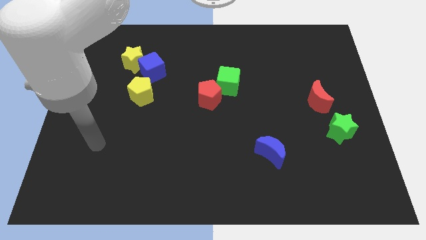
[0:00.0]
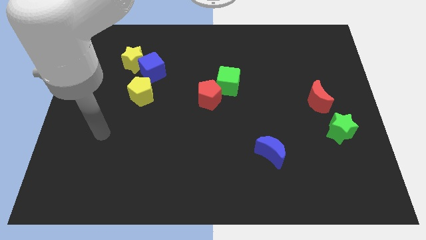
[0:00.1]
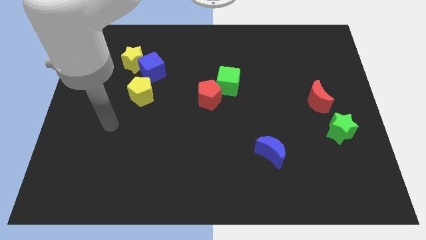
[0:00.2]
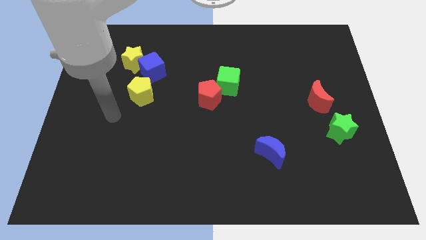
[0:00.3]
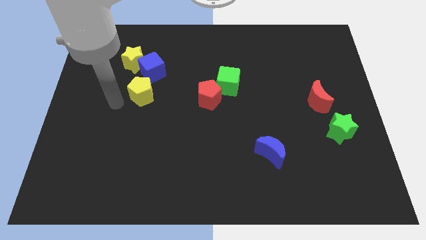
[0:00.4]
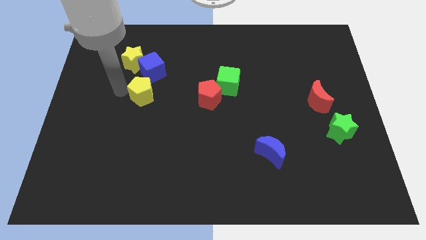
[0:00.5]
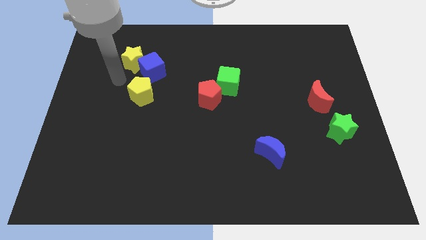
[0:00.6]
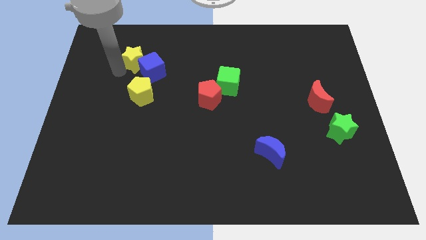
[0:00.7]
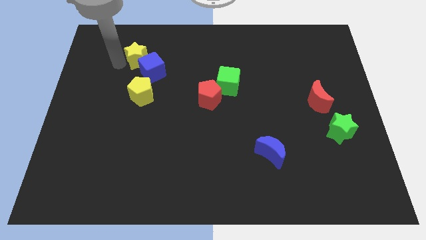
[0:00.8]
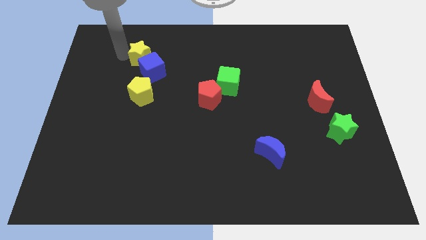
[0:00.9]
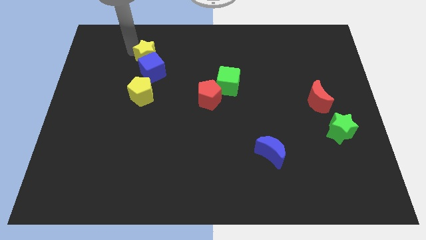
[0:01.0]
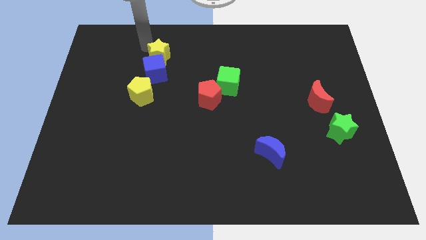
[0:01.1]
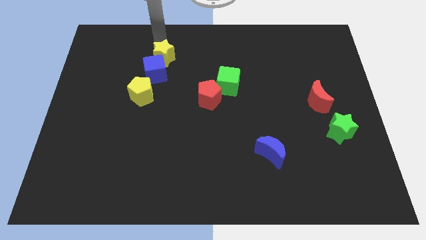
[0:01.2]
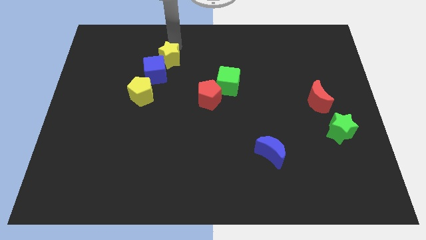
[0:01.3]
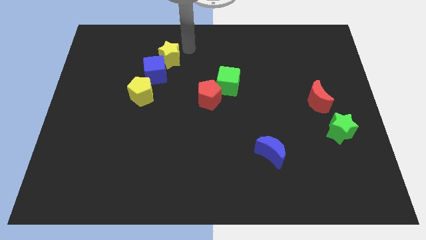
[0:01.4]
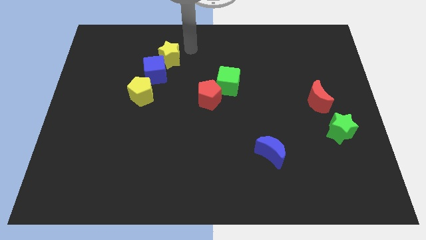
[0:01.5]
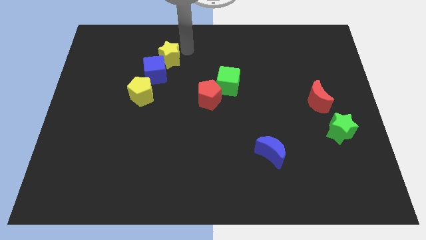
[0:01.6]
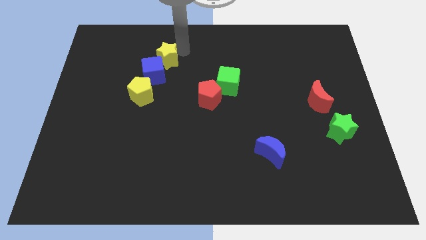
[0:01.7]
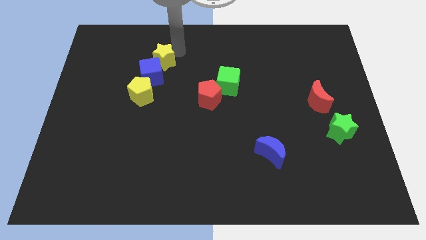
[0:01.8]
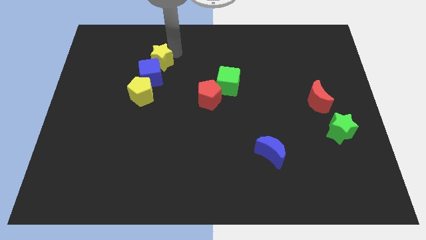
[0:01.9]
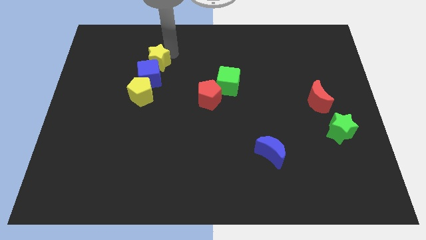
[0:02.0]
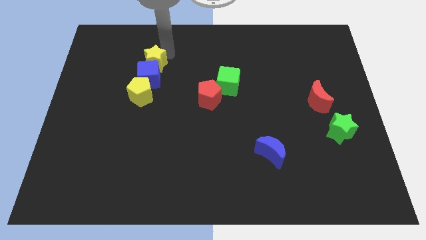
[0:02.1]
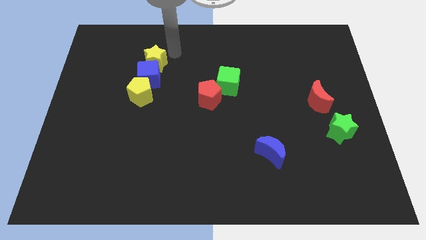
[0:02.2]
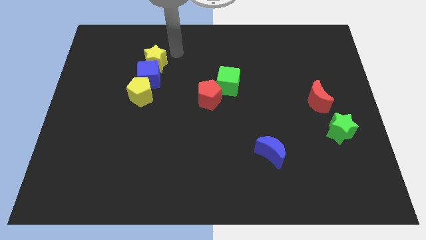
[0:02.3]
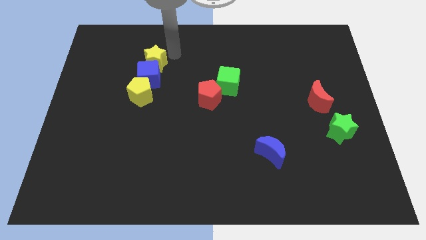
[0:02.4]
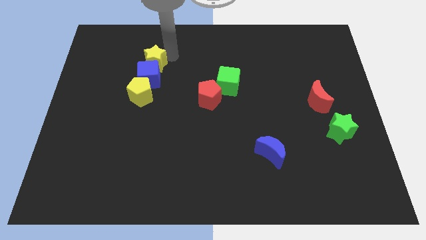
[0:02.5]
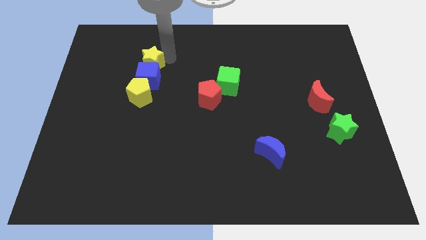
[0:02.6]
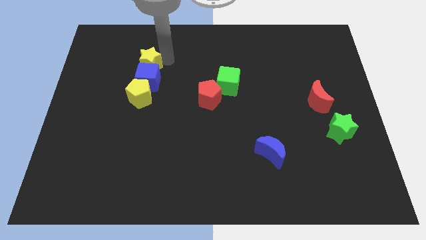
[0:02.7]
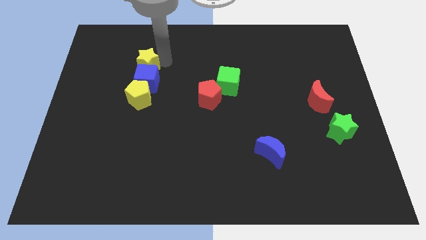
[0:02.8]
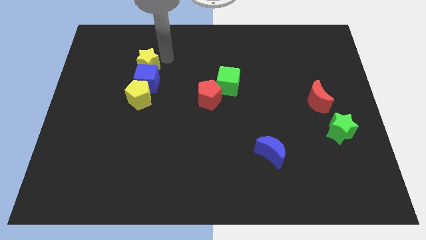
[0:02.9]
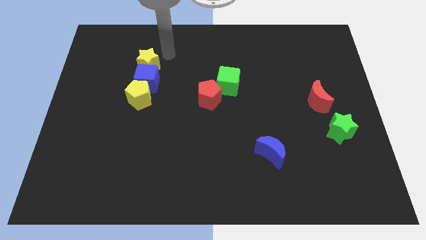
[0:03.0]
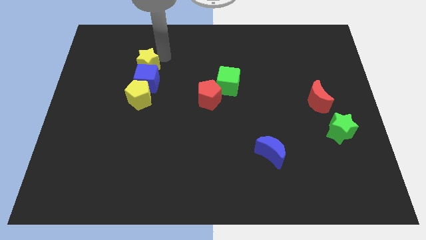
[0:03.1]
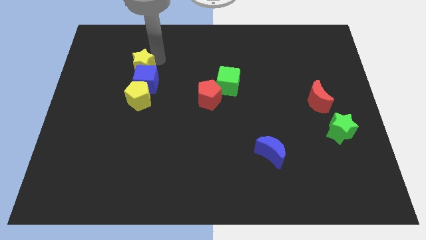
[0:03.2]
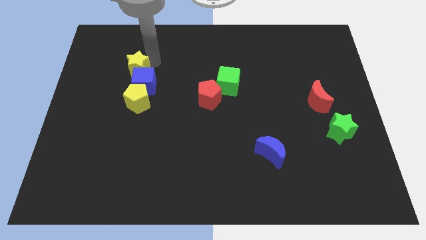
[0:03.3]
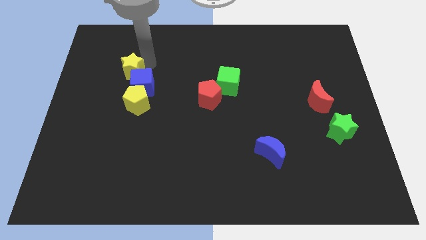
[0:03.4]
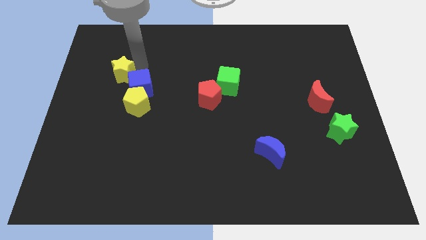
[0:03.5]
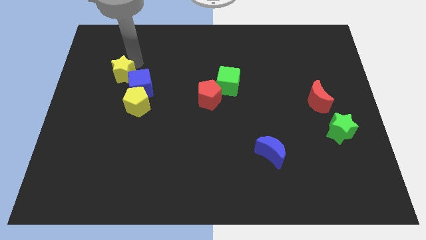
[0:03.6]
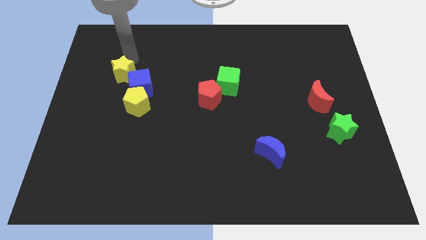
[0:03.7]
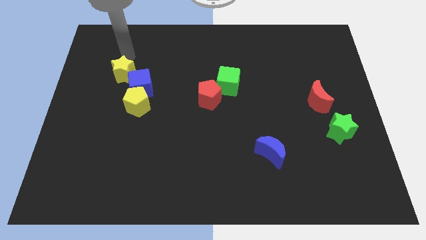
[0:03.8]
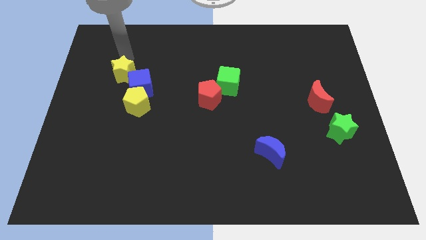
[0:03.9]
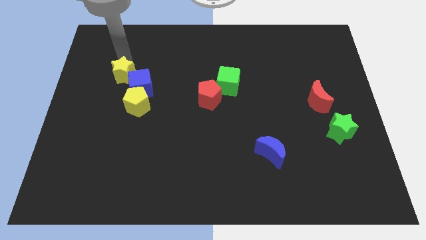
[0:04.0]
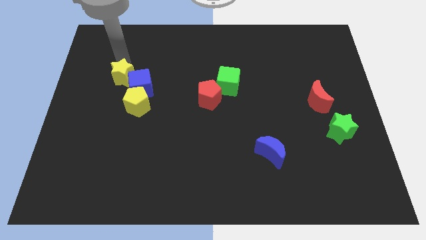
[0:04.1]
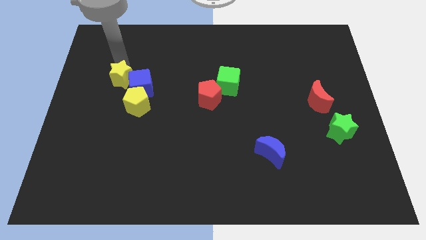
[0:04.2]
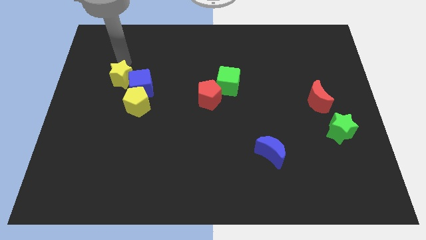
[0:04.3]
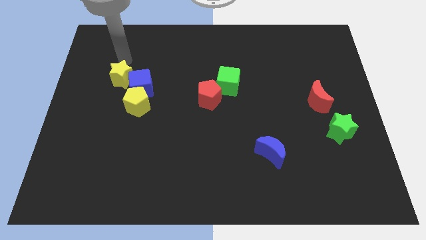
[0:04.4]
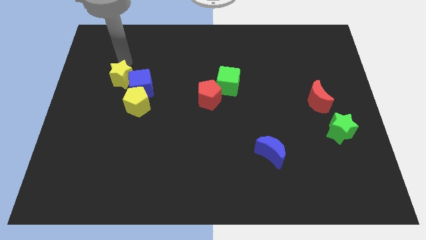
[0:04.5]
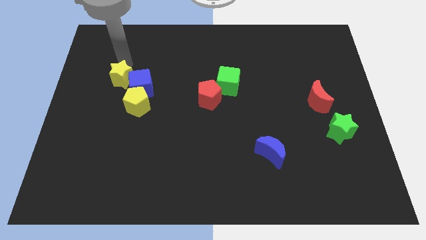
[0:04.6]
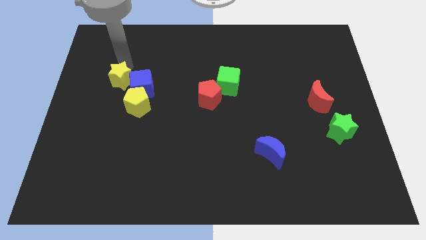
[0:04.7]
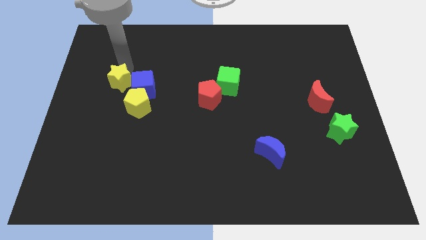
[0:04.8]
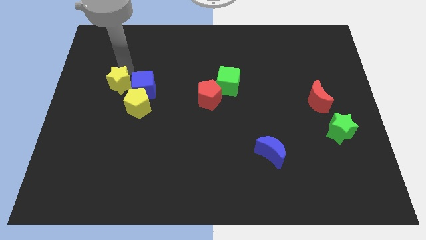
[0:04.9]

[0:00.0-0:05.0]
move the yellow star somewhat down

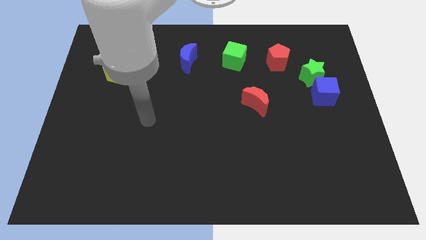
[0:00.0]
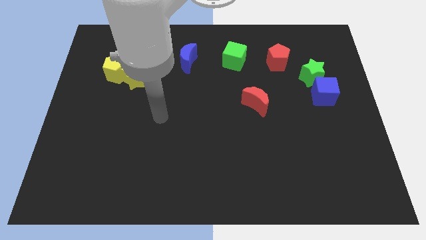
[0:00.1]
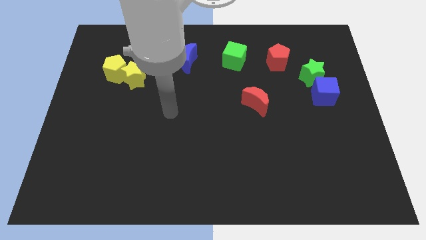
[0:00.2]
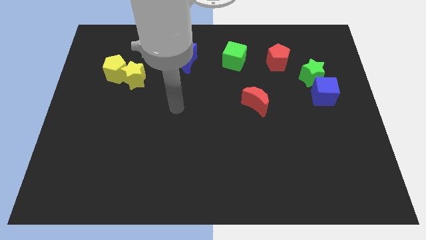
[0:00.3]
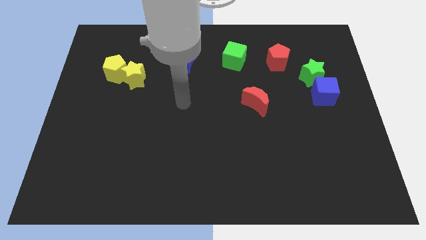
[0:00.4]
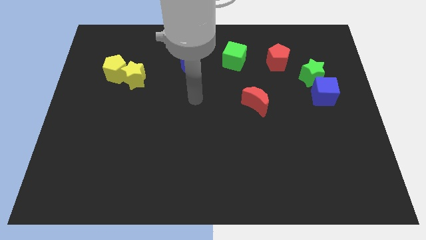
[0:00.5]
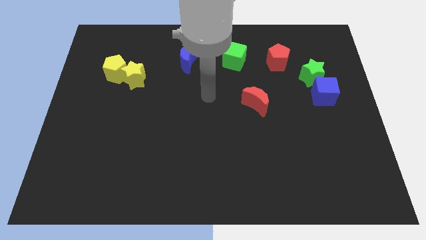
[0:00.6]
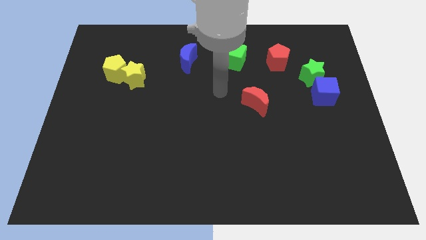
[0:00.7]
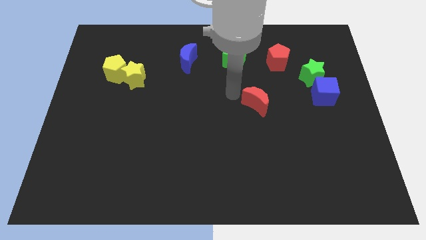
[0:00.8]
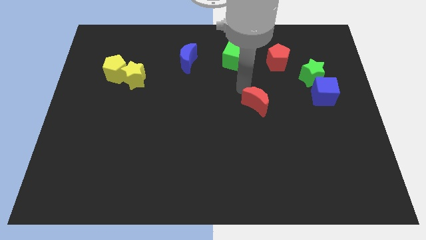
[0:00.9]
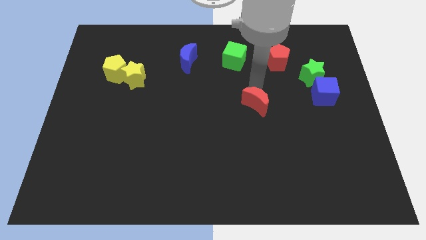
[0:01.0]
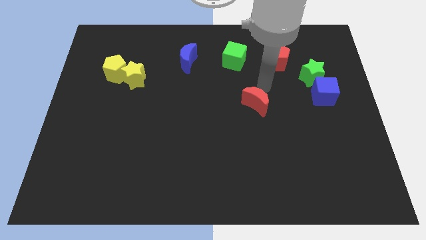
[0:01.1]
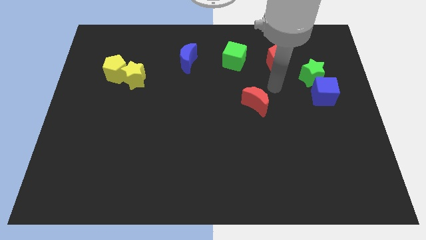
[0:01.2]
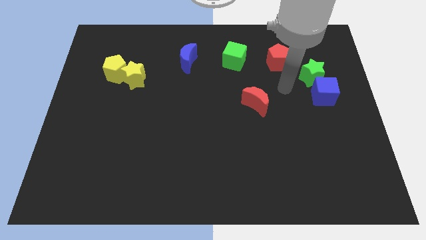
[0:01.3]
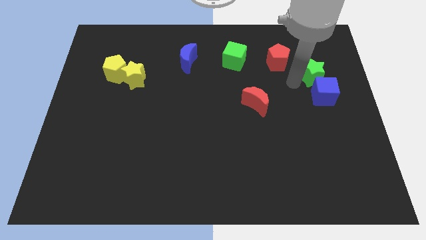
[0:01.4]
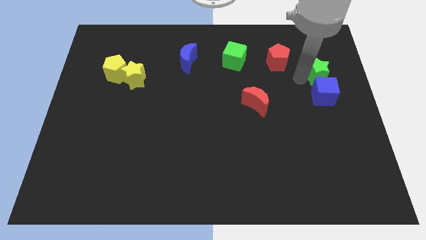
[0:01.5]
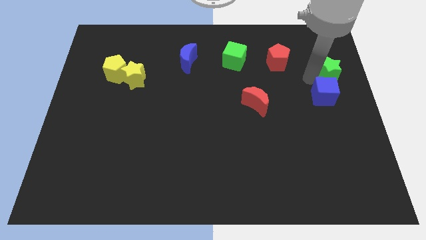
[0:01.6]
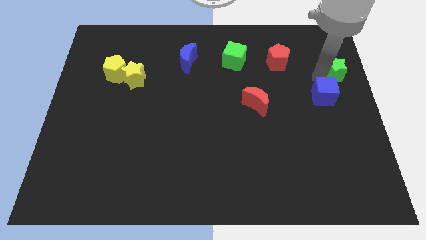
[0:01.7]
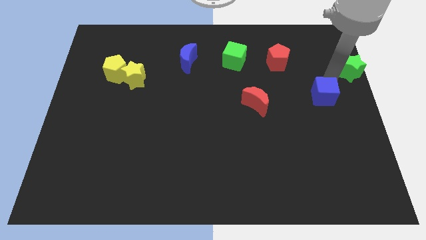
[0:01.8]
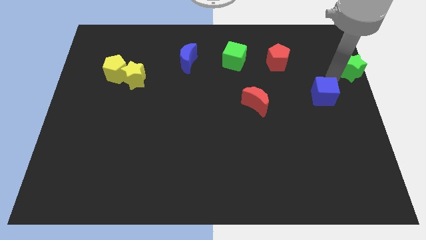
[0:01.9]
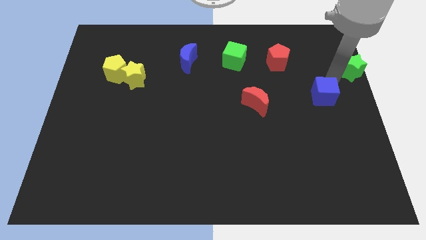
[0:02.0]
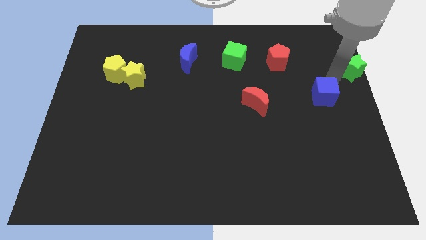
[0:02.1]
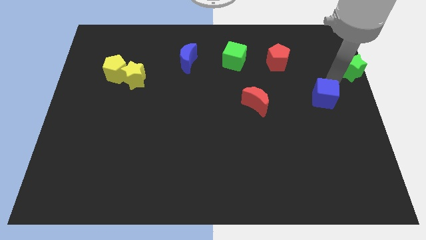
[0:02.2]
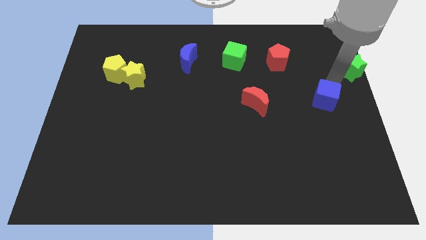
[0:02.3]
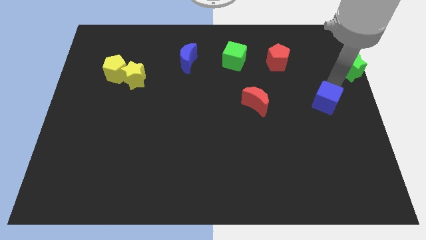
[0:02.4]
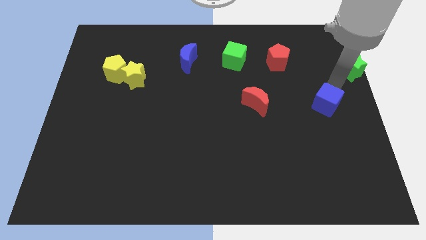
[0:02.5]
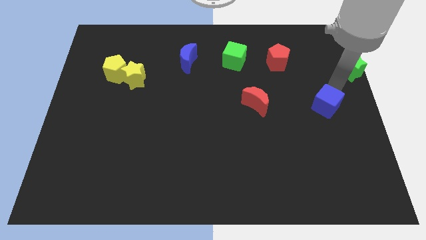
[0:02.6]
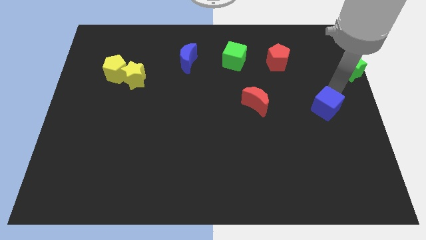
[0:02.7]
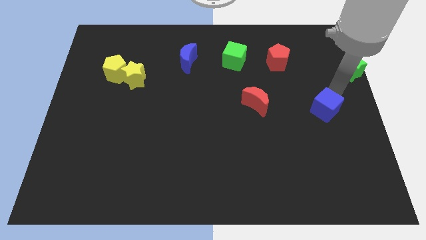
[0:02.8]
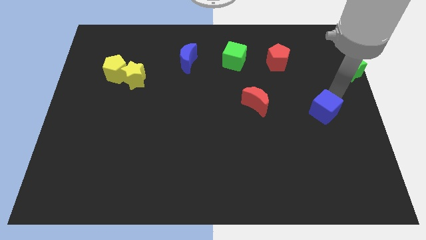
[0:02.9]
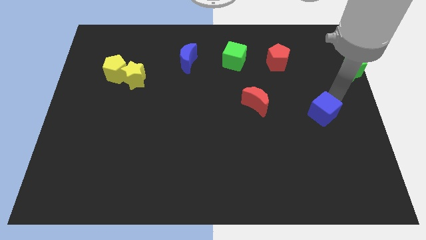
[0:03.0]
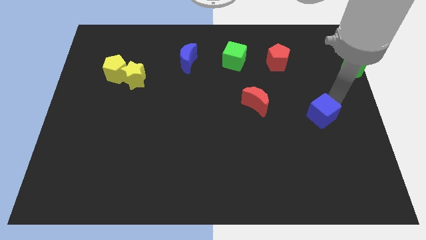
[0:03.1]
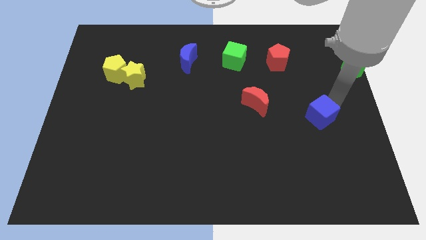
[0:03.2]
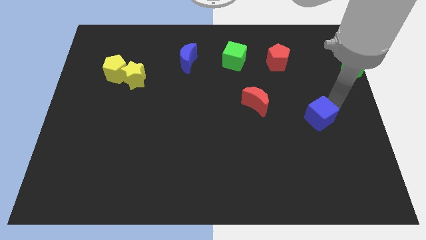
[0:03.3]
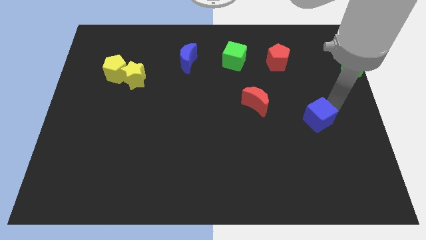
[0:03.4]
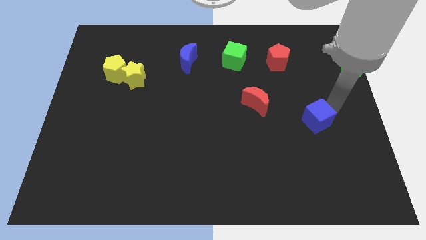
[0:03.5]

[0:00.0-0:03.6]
move the blue cube downwards and left a bit
